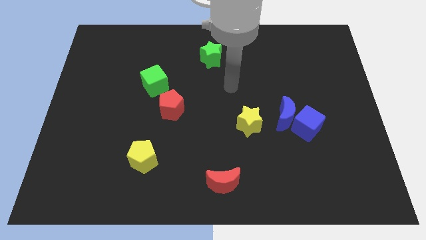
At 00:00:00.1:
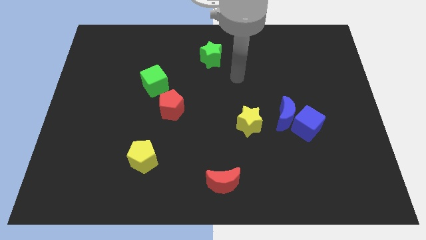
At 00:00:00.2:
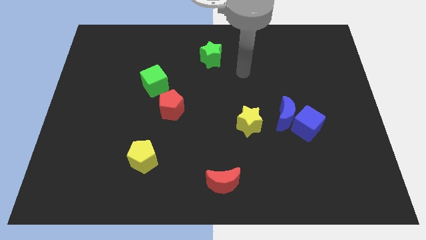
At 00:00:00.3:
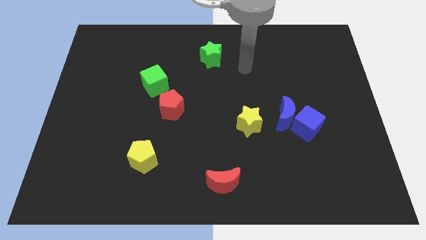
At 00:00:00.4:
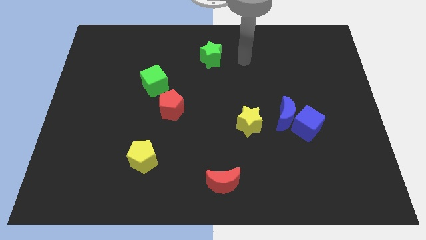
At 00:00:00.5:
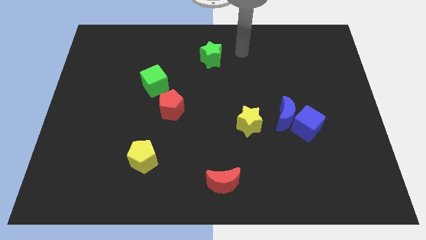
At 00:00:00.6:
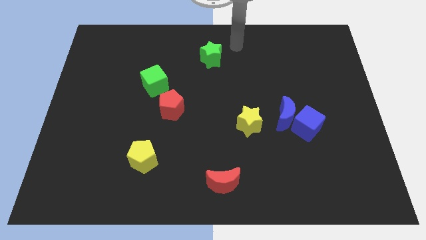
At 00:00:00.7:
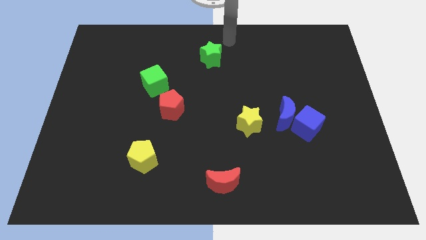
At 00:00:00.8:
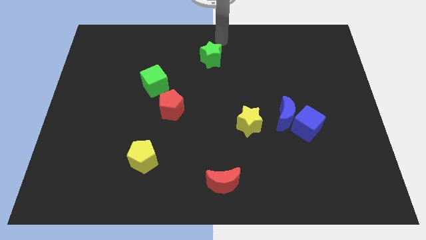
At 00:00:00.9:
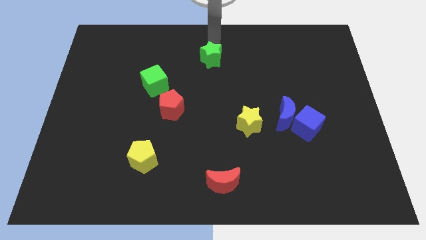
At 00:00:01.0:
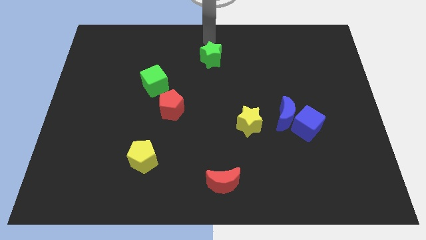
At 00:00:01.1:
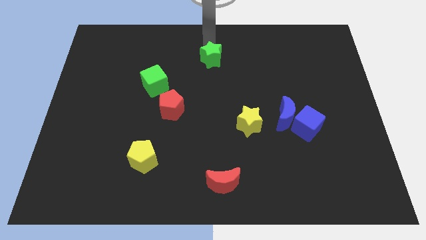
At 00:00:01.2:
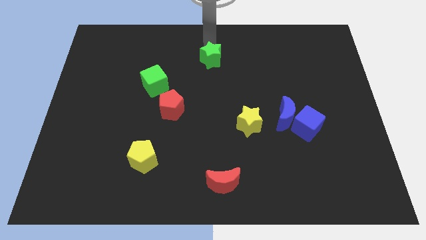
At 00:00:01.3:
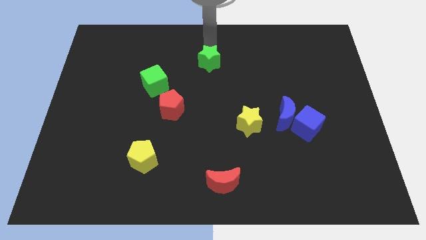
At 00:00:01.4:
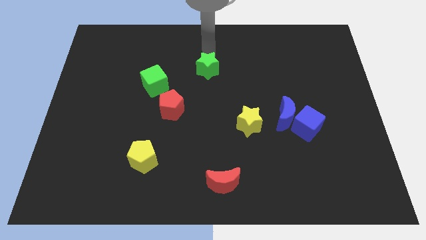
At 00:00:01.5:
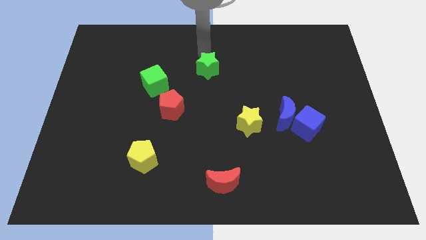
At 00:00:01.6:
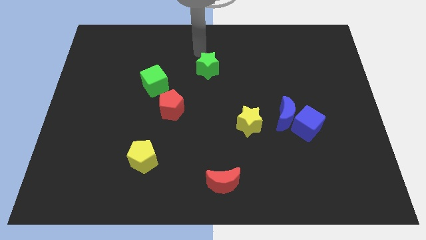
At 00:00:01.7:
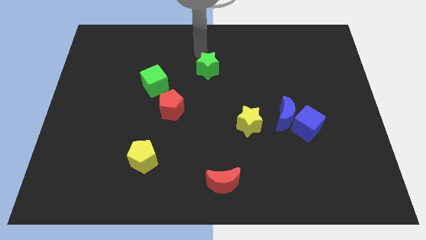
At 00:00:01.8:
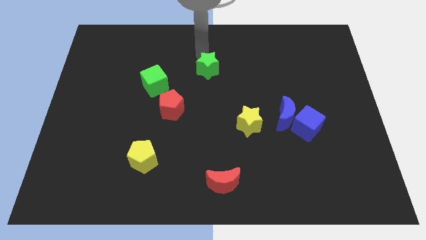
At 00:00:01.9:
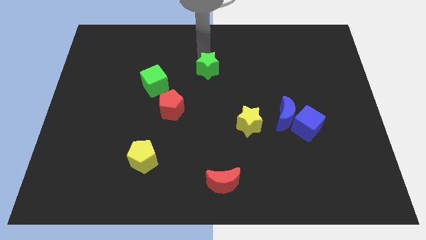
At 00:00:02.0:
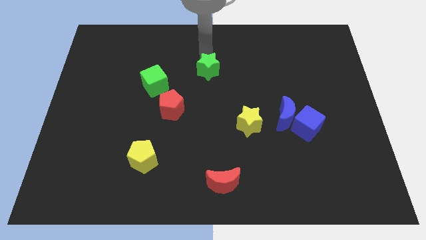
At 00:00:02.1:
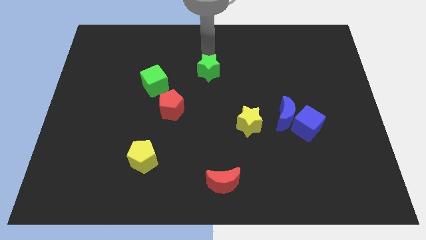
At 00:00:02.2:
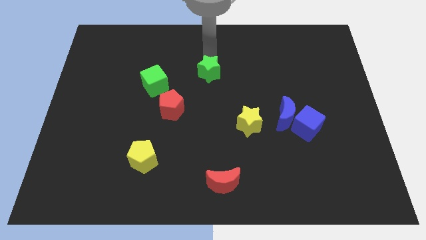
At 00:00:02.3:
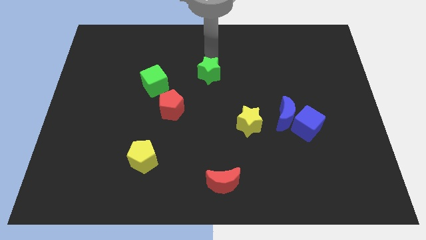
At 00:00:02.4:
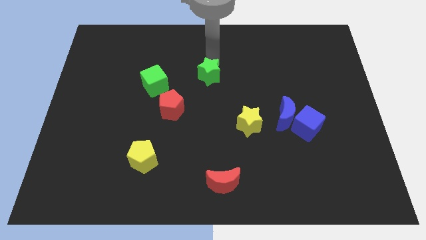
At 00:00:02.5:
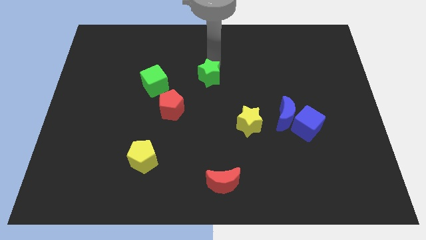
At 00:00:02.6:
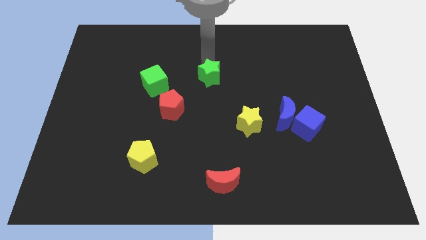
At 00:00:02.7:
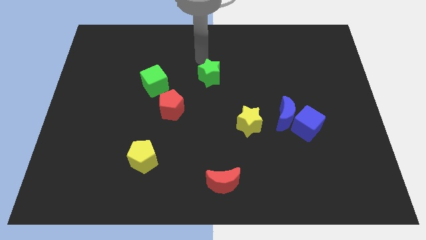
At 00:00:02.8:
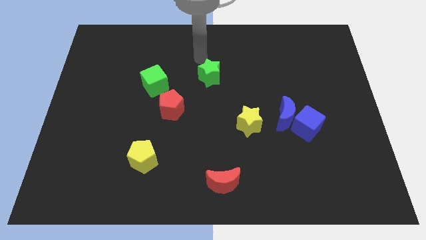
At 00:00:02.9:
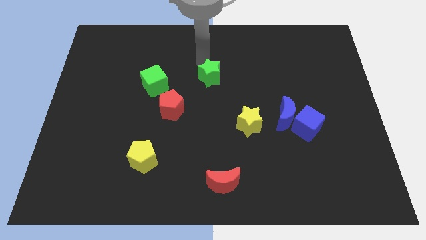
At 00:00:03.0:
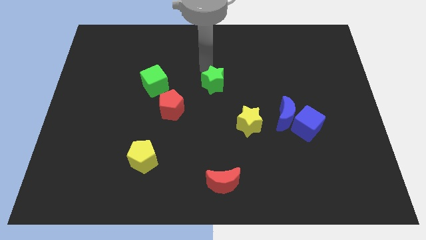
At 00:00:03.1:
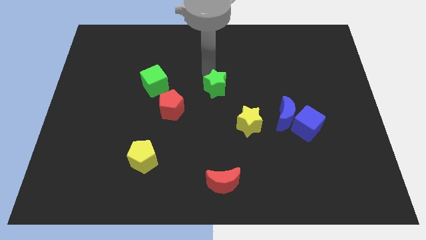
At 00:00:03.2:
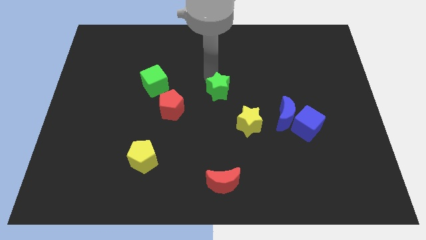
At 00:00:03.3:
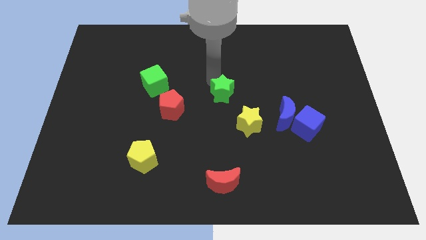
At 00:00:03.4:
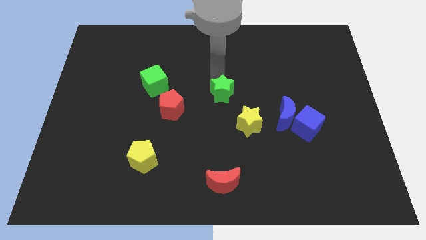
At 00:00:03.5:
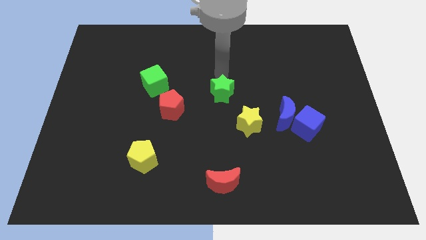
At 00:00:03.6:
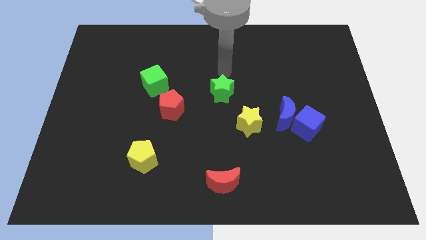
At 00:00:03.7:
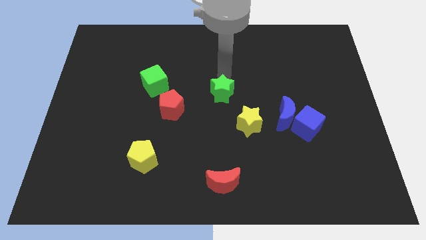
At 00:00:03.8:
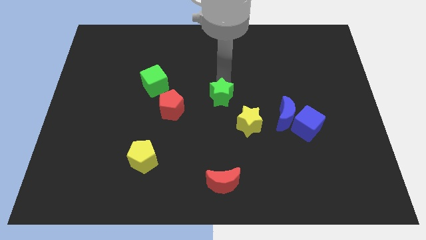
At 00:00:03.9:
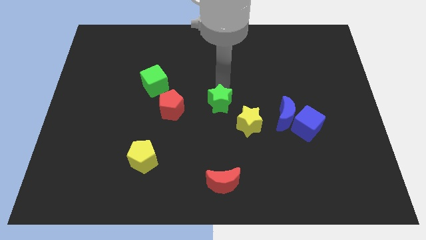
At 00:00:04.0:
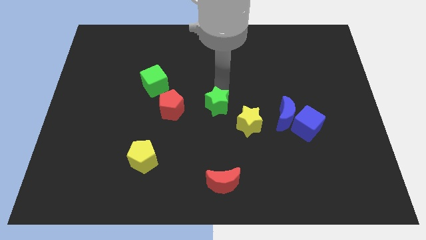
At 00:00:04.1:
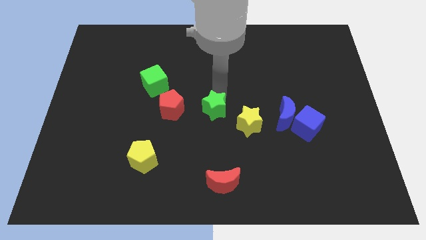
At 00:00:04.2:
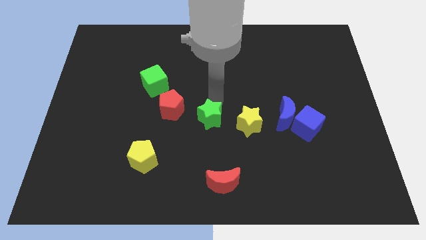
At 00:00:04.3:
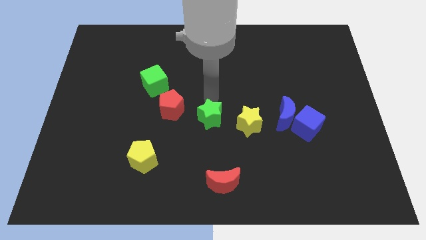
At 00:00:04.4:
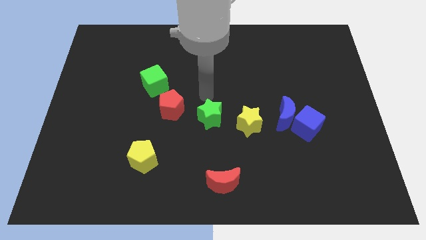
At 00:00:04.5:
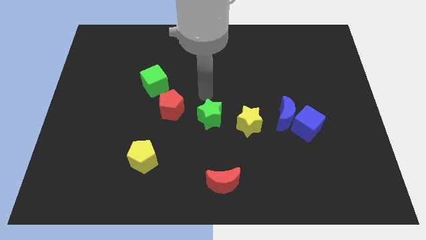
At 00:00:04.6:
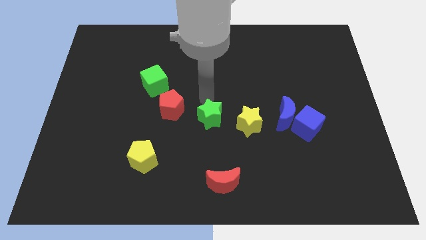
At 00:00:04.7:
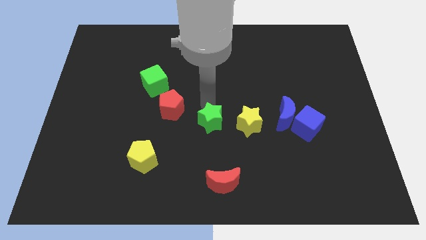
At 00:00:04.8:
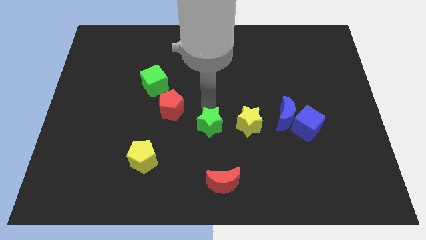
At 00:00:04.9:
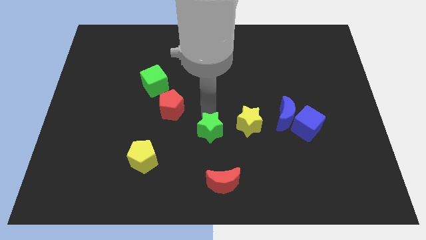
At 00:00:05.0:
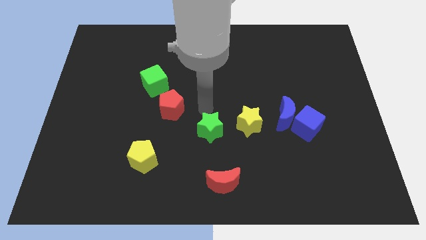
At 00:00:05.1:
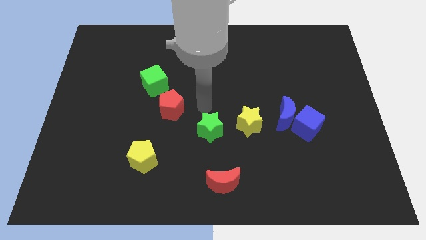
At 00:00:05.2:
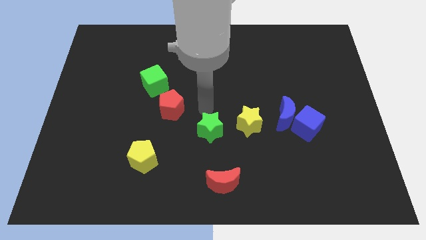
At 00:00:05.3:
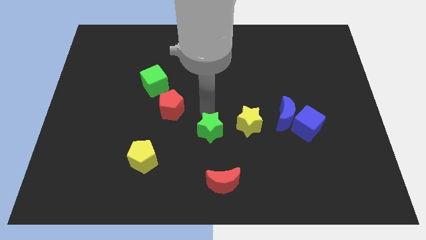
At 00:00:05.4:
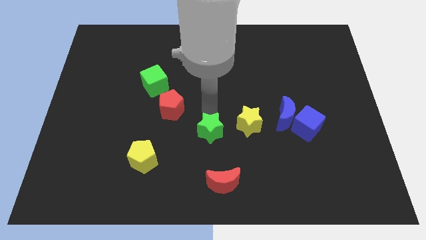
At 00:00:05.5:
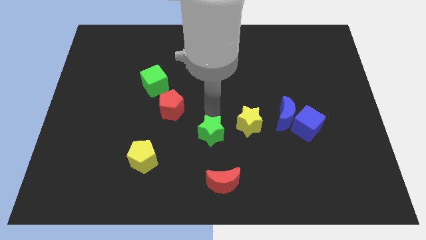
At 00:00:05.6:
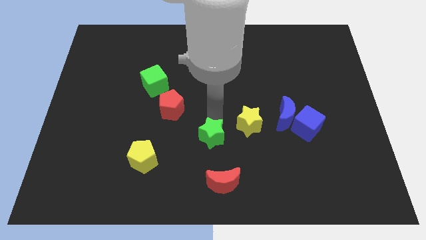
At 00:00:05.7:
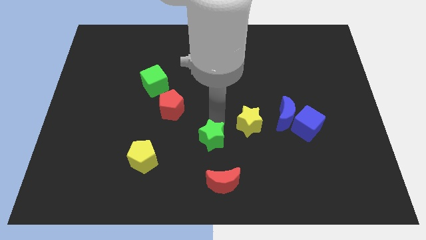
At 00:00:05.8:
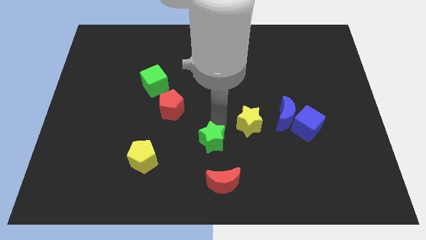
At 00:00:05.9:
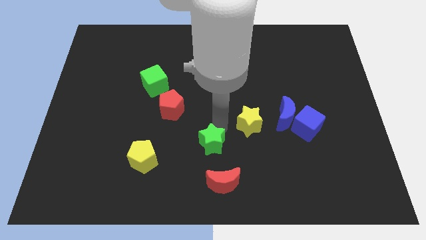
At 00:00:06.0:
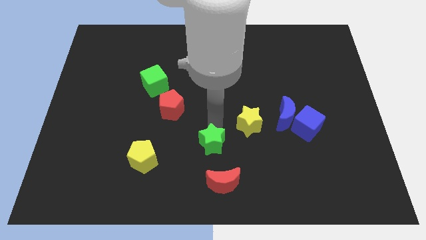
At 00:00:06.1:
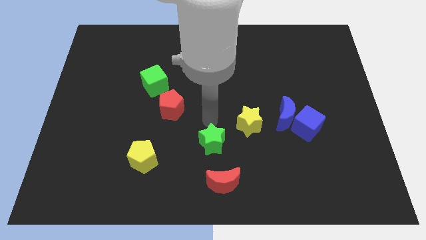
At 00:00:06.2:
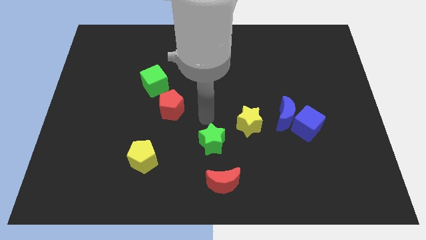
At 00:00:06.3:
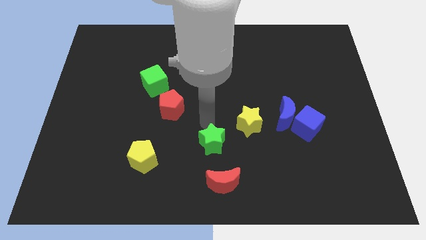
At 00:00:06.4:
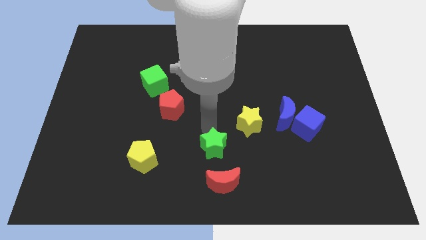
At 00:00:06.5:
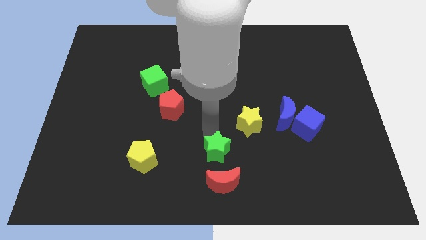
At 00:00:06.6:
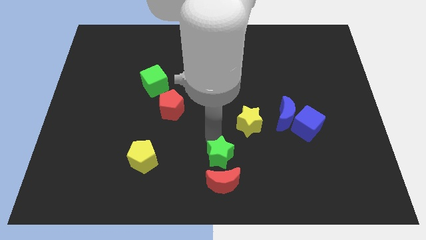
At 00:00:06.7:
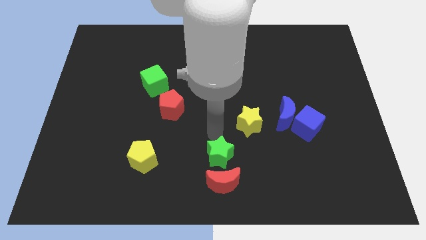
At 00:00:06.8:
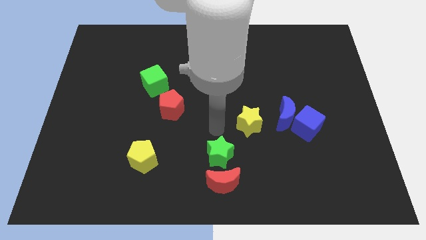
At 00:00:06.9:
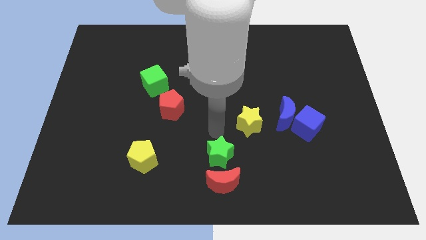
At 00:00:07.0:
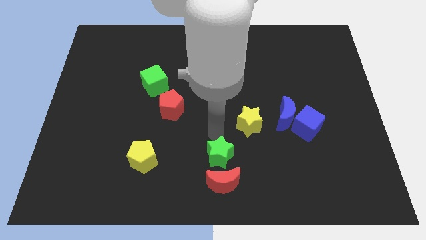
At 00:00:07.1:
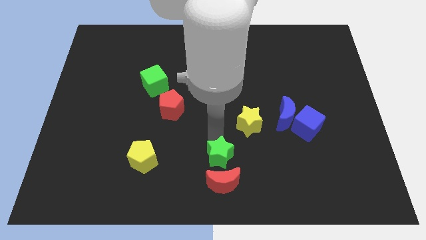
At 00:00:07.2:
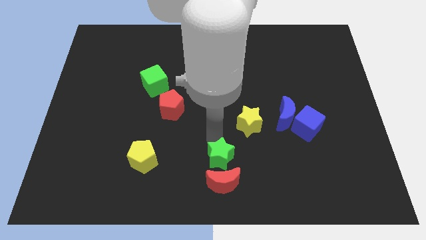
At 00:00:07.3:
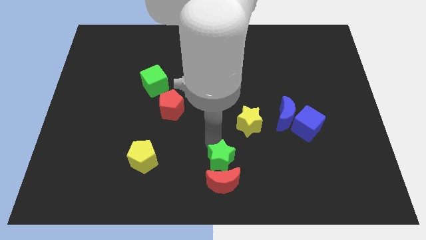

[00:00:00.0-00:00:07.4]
push the green star to the red moon
